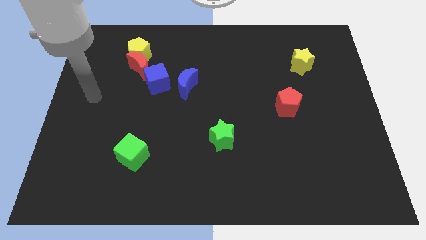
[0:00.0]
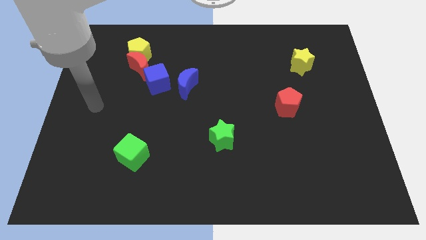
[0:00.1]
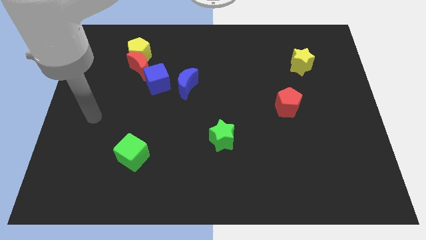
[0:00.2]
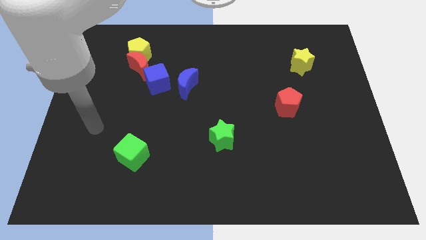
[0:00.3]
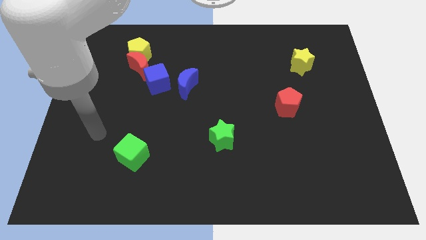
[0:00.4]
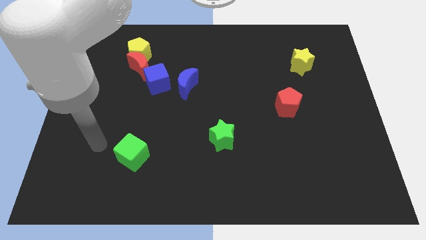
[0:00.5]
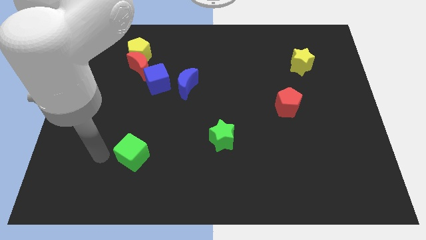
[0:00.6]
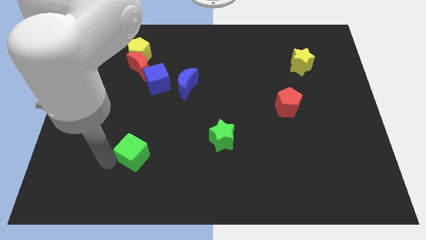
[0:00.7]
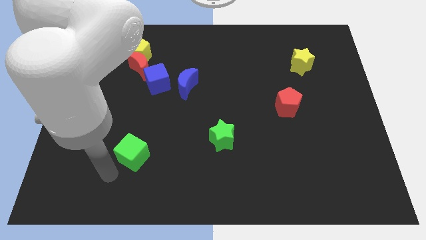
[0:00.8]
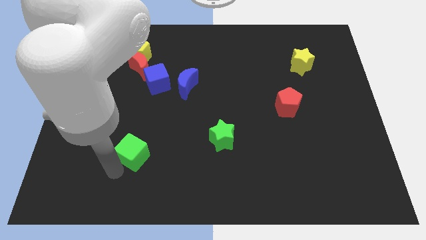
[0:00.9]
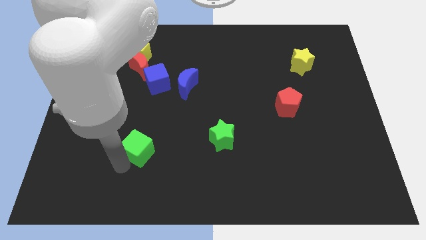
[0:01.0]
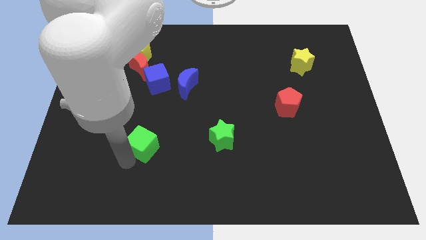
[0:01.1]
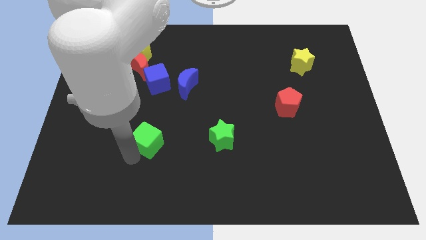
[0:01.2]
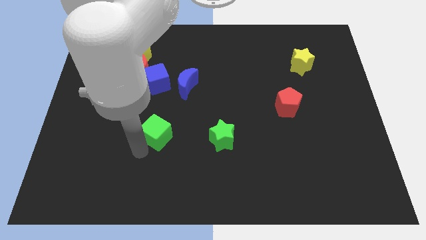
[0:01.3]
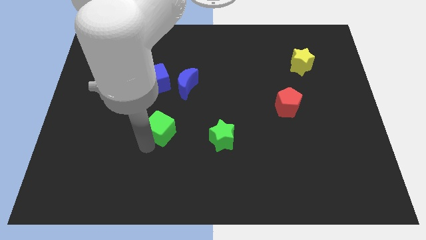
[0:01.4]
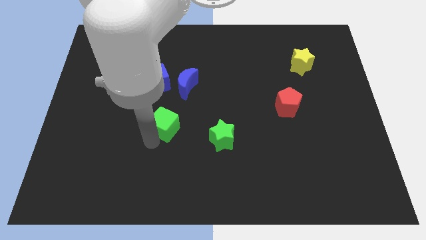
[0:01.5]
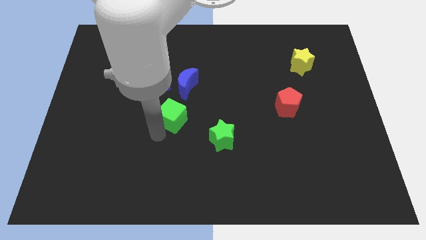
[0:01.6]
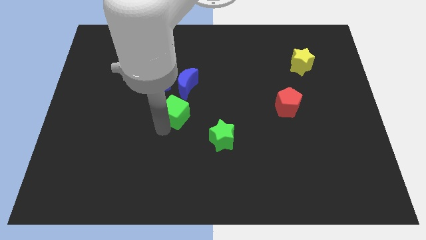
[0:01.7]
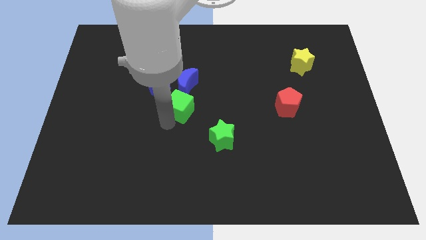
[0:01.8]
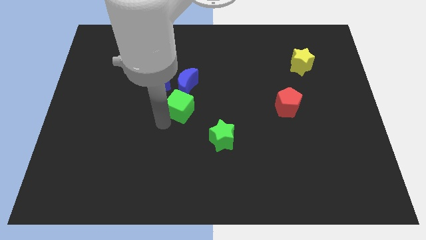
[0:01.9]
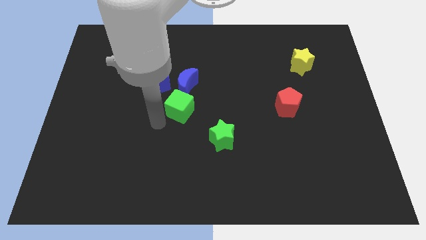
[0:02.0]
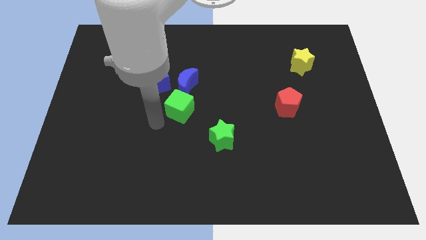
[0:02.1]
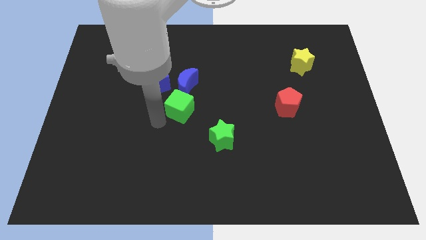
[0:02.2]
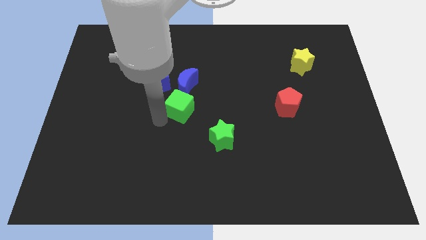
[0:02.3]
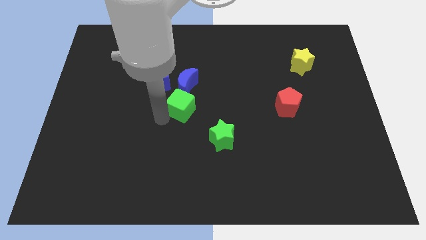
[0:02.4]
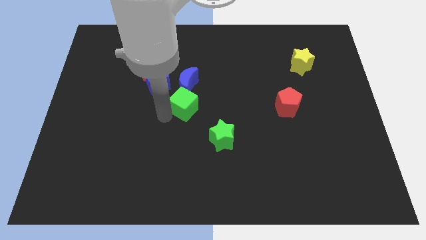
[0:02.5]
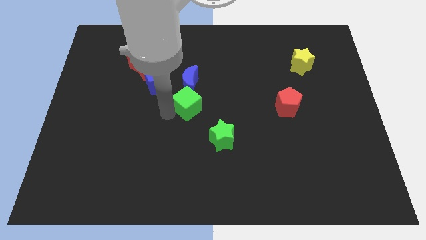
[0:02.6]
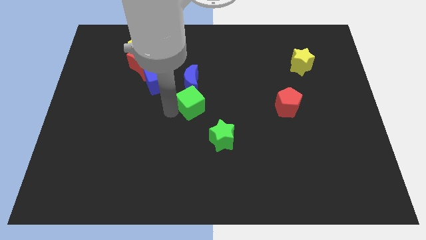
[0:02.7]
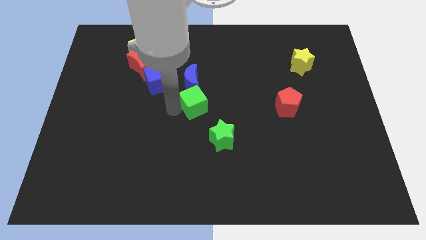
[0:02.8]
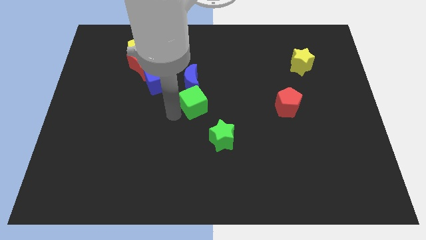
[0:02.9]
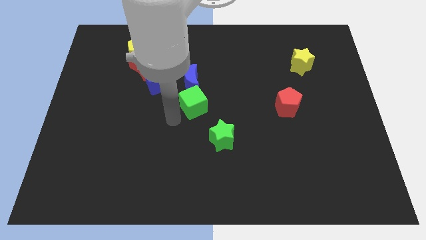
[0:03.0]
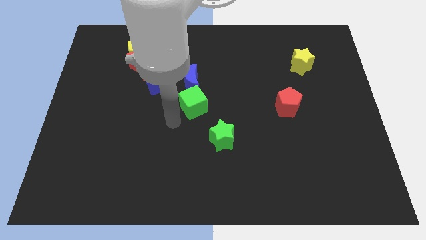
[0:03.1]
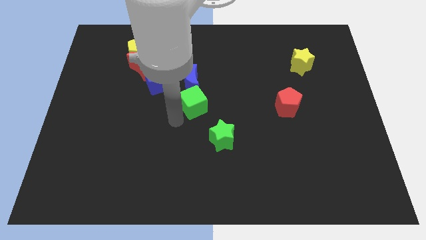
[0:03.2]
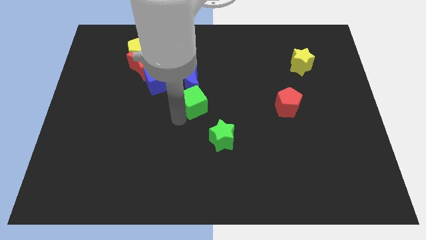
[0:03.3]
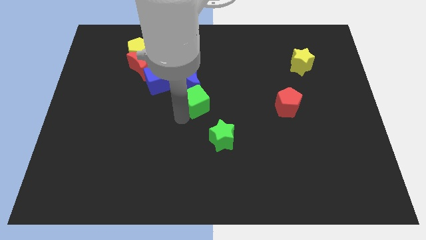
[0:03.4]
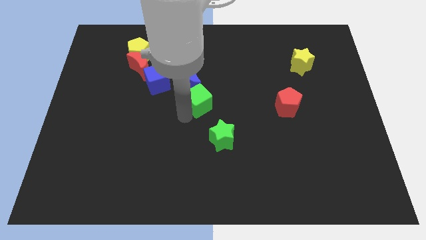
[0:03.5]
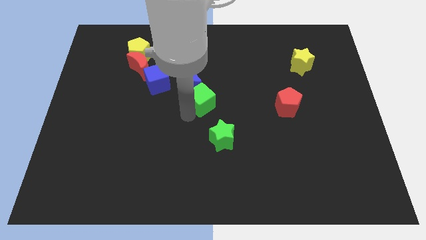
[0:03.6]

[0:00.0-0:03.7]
push the green cube diagonally up and to the right

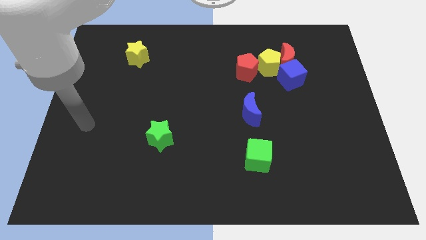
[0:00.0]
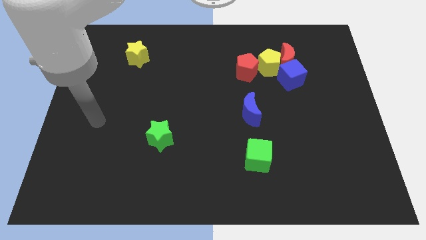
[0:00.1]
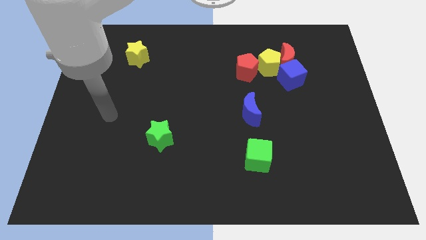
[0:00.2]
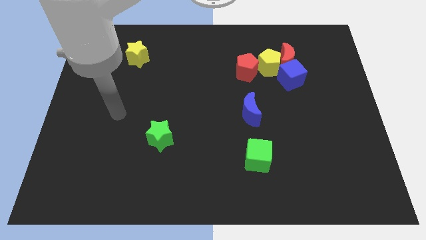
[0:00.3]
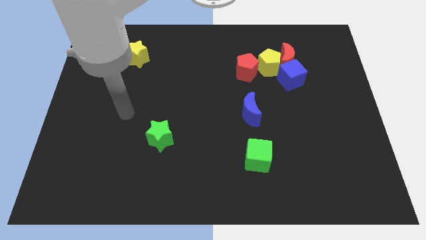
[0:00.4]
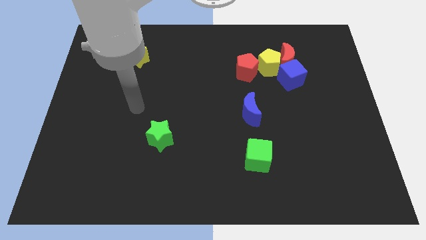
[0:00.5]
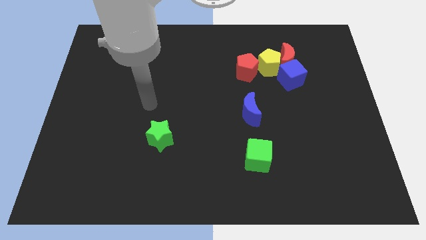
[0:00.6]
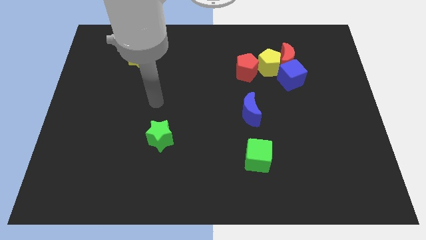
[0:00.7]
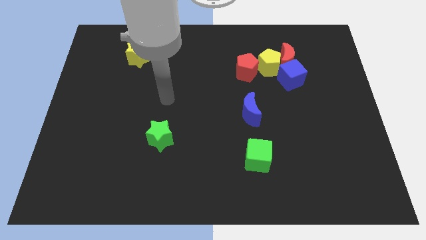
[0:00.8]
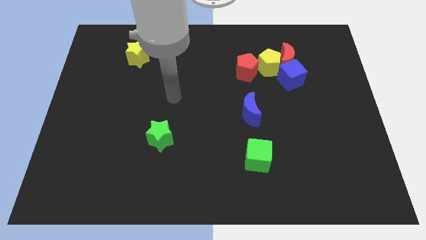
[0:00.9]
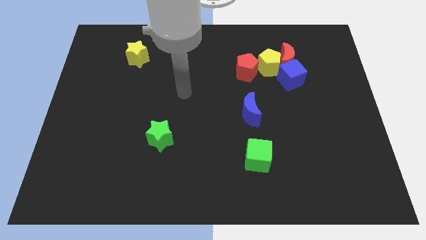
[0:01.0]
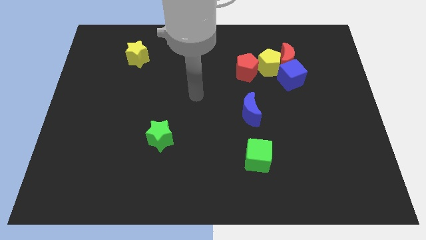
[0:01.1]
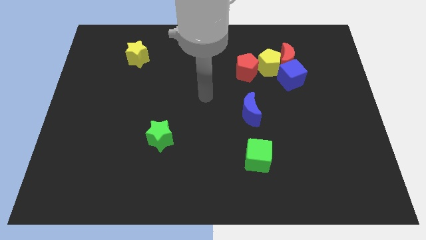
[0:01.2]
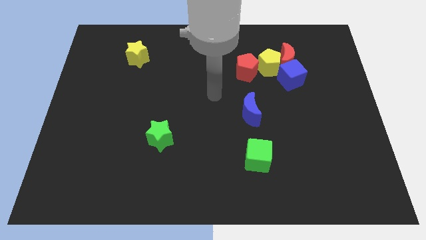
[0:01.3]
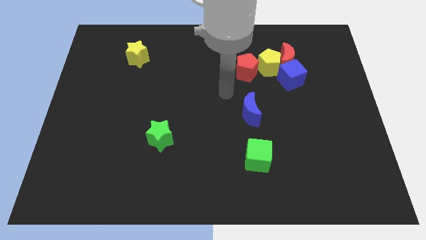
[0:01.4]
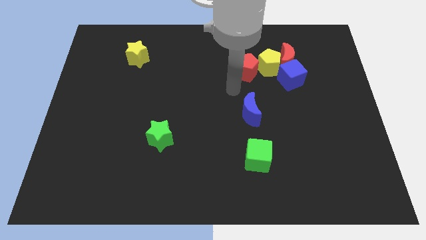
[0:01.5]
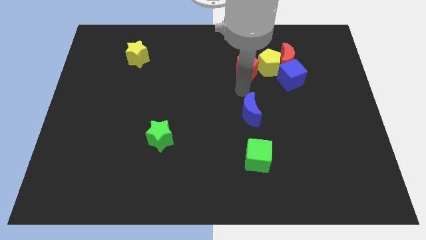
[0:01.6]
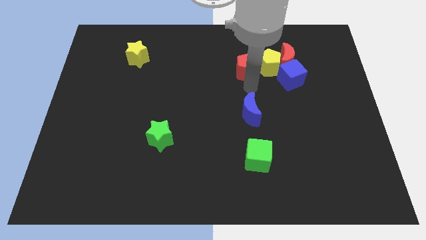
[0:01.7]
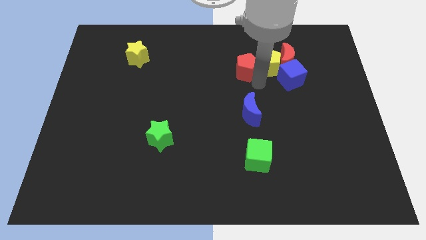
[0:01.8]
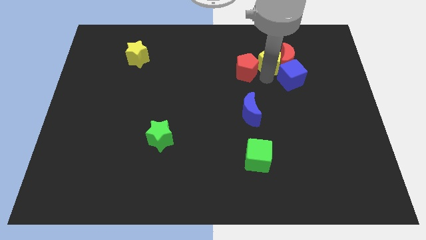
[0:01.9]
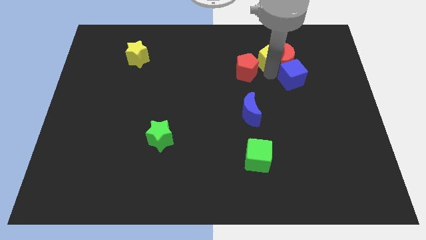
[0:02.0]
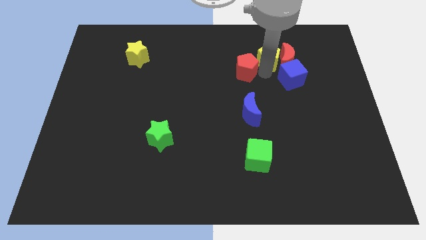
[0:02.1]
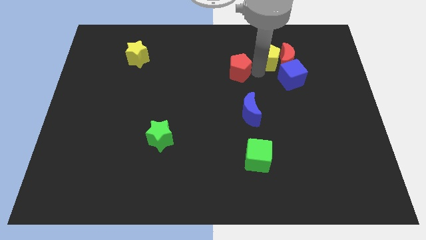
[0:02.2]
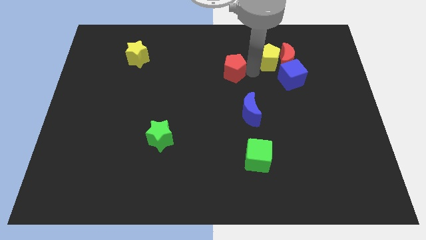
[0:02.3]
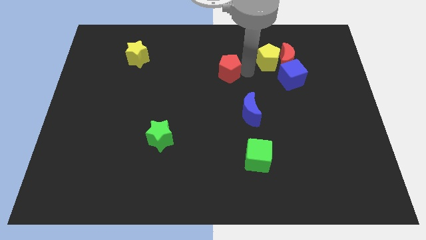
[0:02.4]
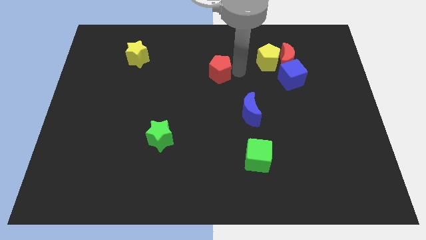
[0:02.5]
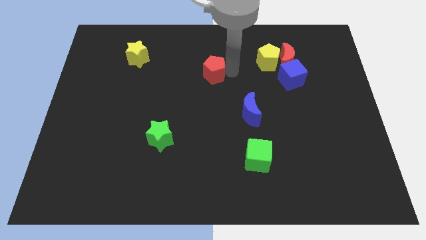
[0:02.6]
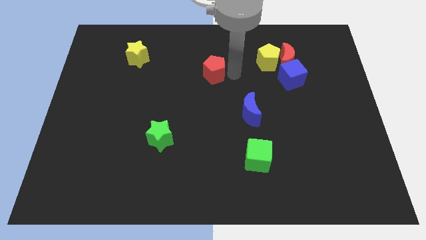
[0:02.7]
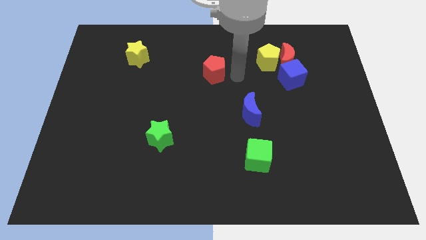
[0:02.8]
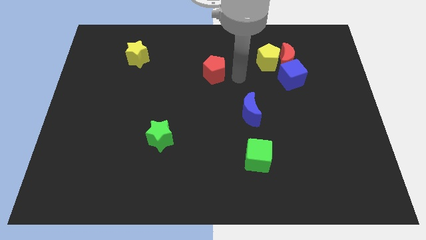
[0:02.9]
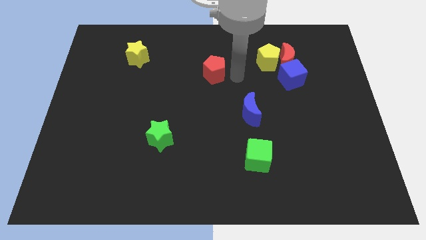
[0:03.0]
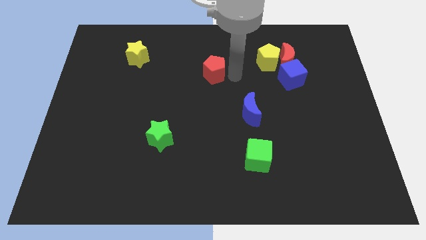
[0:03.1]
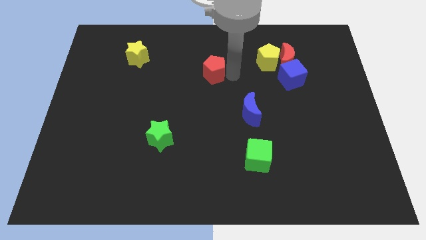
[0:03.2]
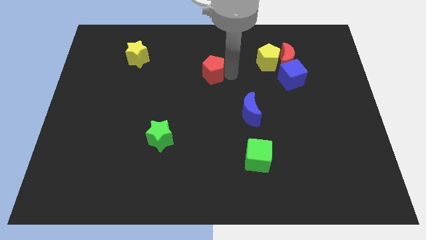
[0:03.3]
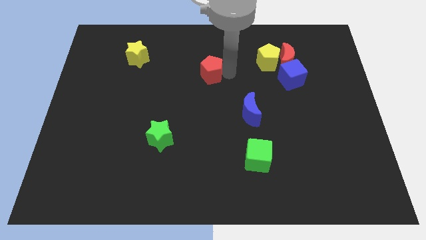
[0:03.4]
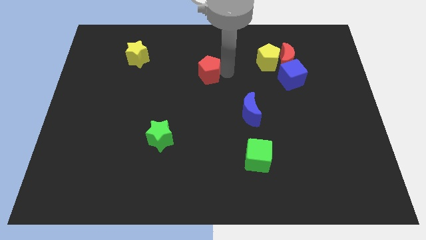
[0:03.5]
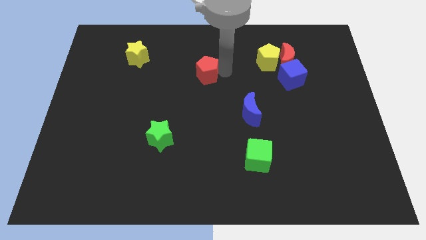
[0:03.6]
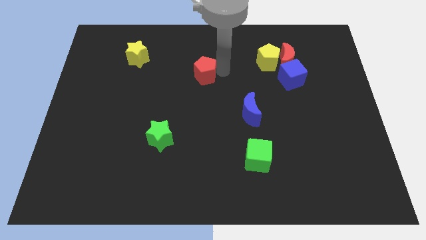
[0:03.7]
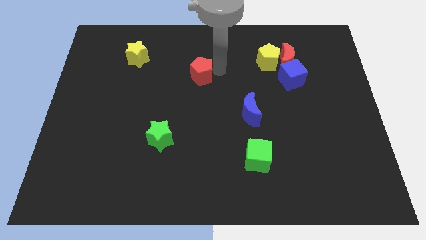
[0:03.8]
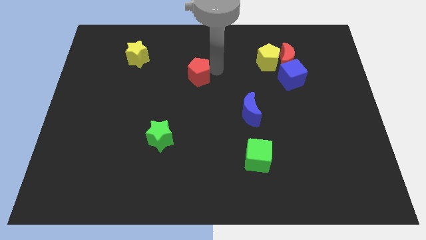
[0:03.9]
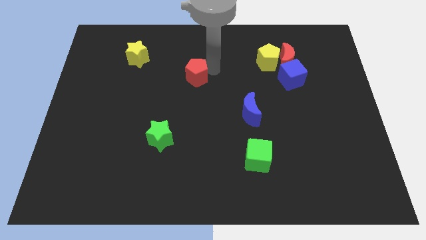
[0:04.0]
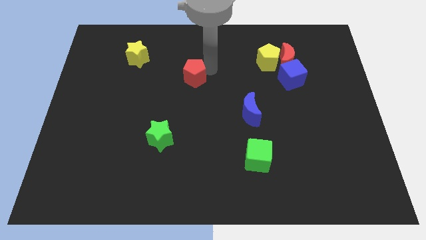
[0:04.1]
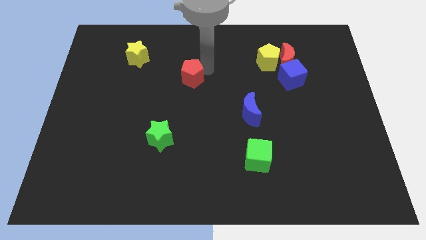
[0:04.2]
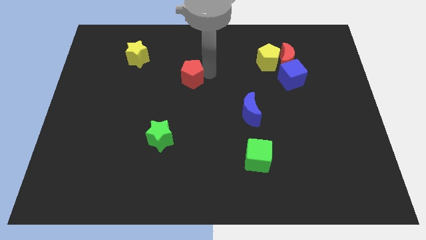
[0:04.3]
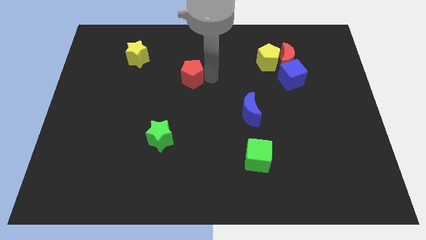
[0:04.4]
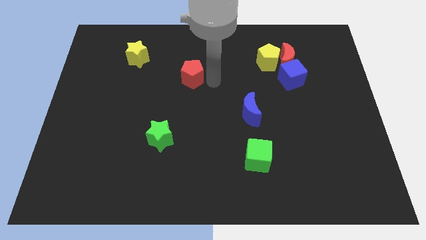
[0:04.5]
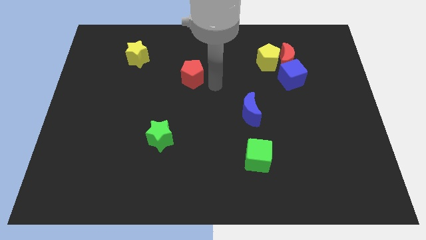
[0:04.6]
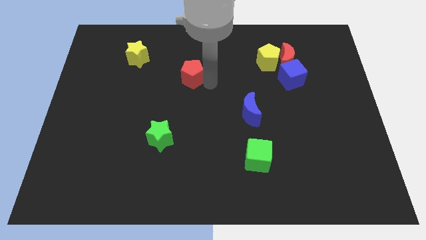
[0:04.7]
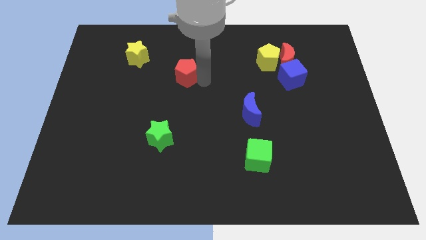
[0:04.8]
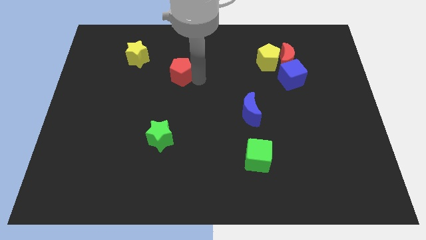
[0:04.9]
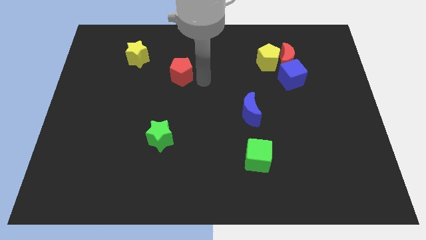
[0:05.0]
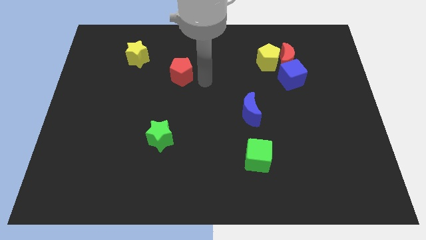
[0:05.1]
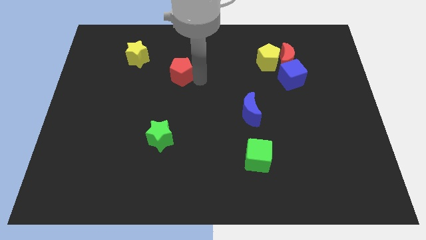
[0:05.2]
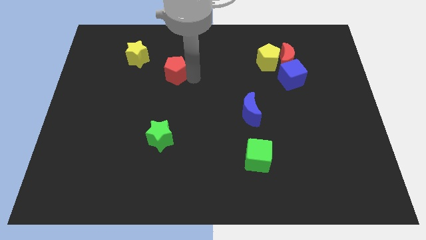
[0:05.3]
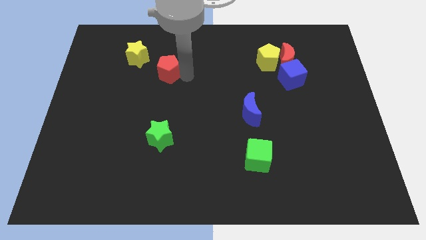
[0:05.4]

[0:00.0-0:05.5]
slide the red pentagon left
